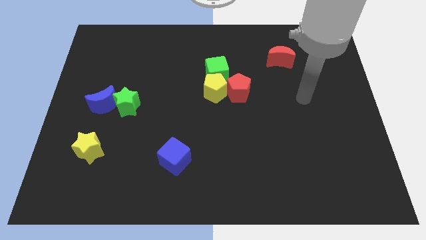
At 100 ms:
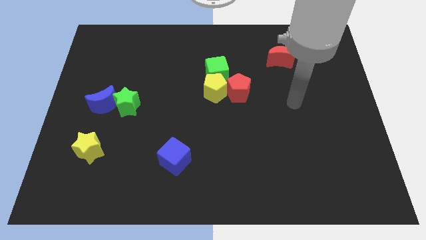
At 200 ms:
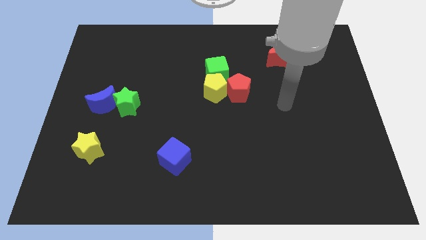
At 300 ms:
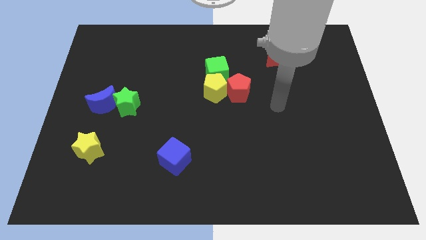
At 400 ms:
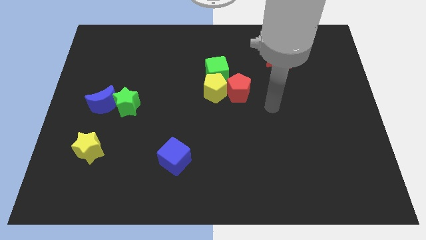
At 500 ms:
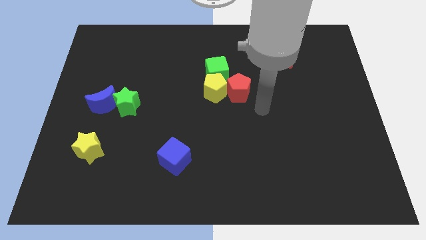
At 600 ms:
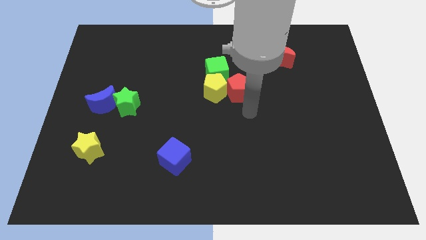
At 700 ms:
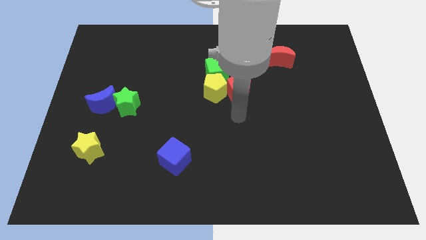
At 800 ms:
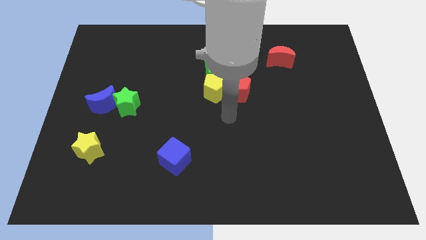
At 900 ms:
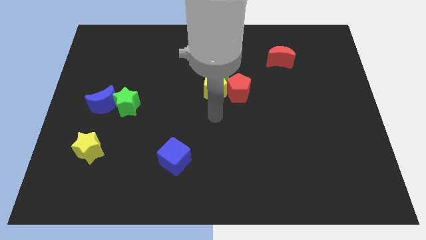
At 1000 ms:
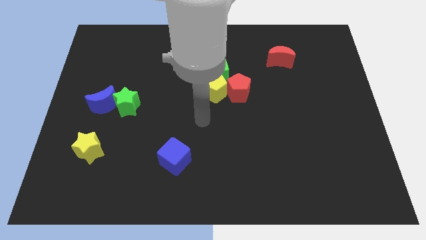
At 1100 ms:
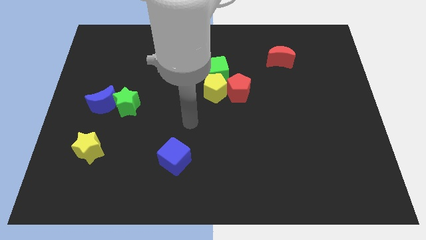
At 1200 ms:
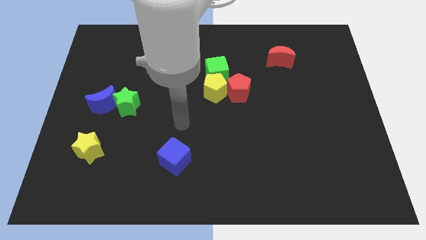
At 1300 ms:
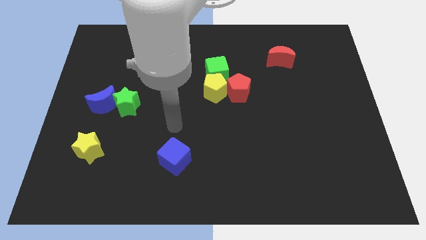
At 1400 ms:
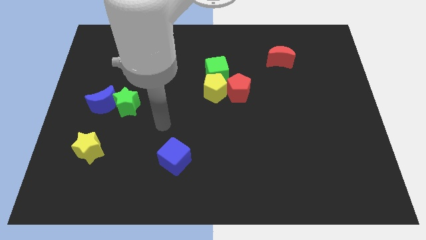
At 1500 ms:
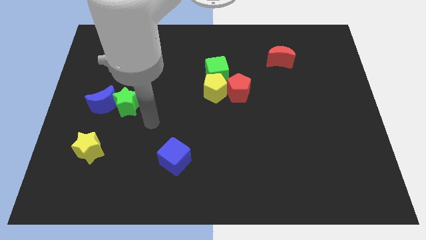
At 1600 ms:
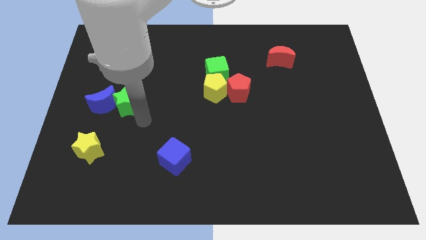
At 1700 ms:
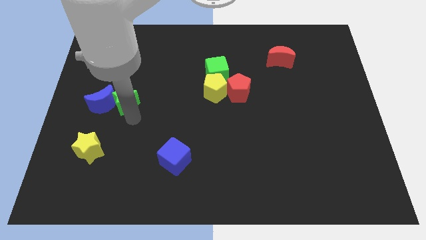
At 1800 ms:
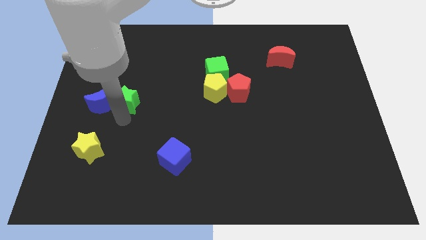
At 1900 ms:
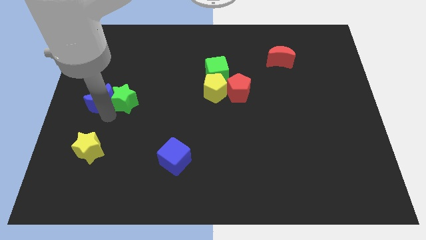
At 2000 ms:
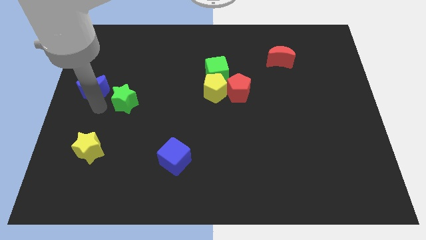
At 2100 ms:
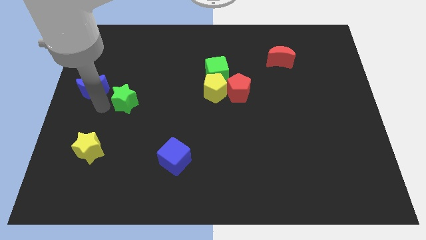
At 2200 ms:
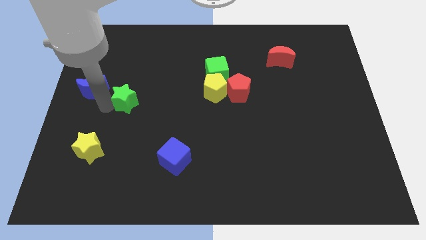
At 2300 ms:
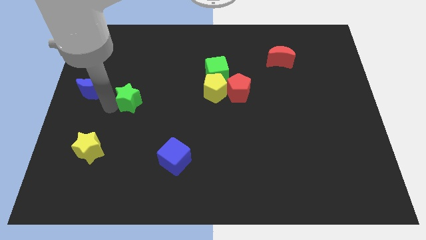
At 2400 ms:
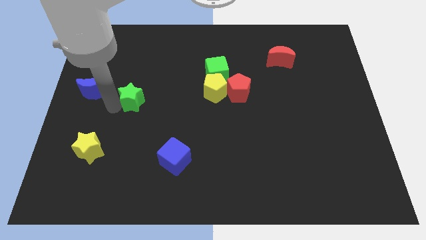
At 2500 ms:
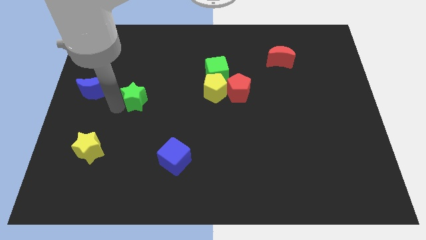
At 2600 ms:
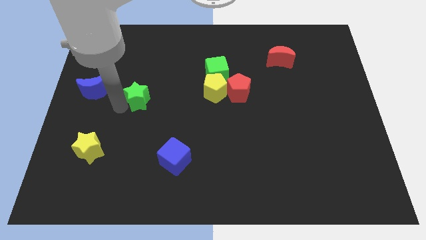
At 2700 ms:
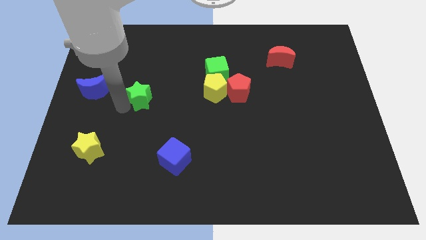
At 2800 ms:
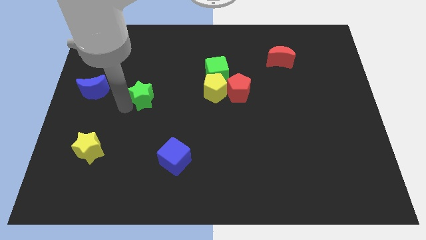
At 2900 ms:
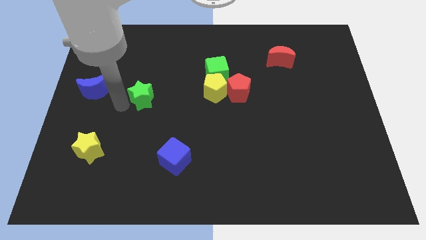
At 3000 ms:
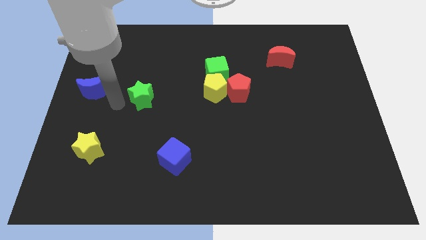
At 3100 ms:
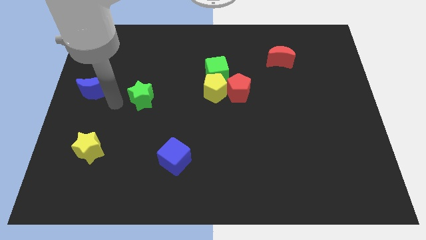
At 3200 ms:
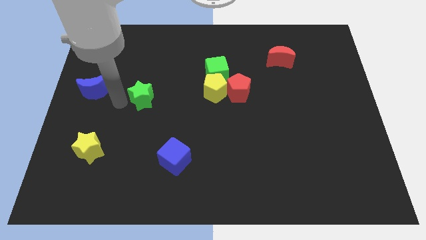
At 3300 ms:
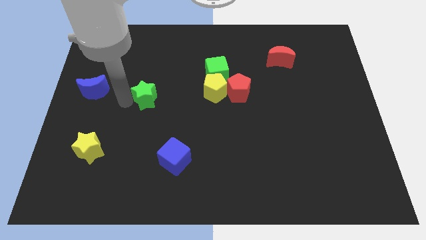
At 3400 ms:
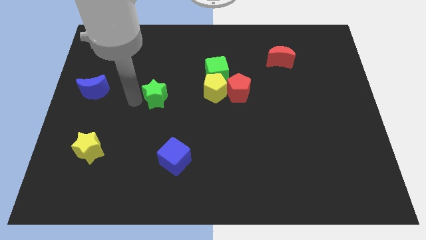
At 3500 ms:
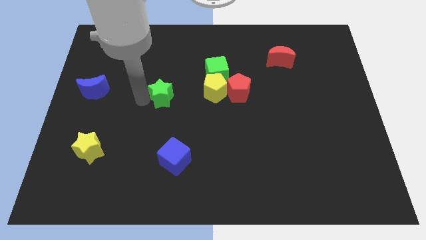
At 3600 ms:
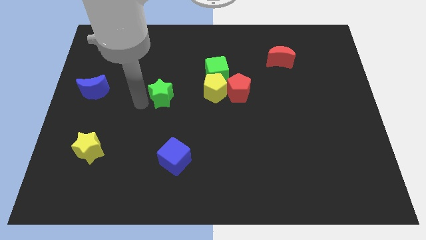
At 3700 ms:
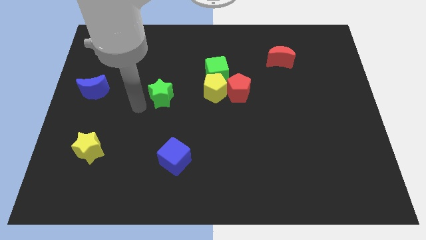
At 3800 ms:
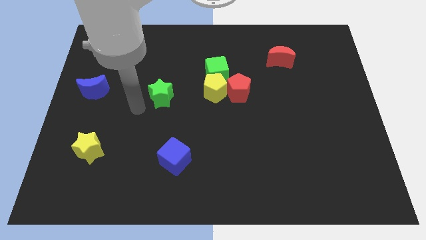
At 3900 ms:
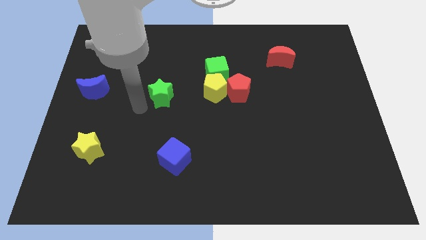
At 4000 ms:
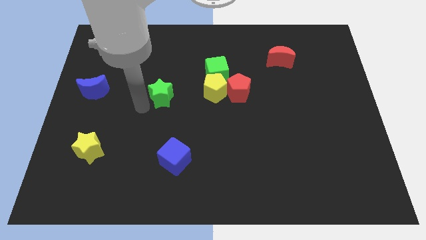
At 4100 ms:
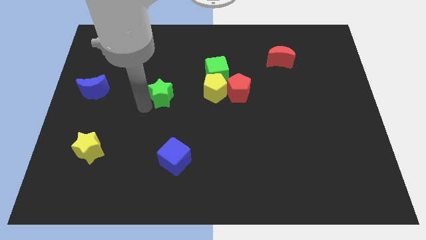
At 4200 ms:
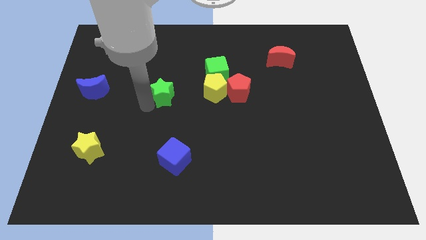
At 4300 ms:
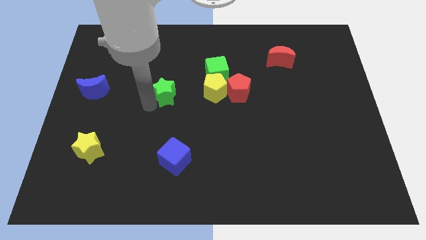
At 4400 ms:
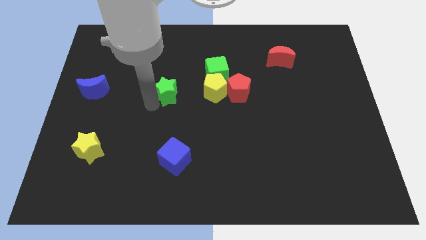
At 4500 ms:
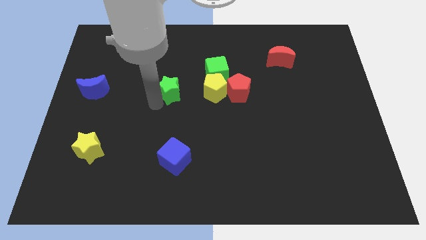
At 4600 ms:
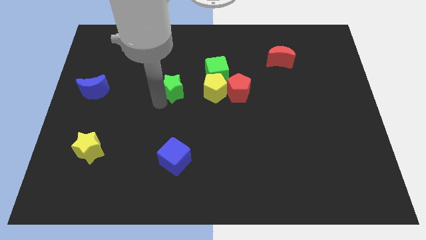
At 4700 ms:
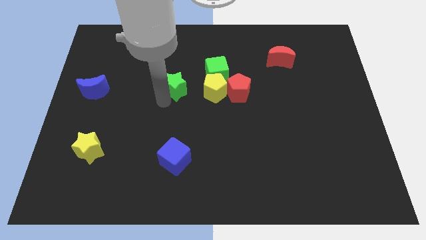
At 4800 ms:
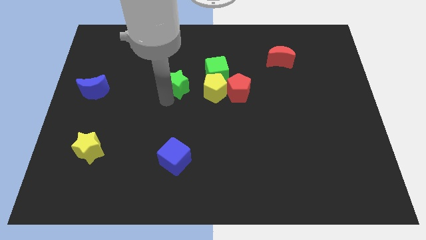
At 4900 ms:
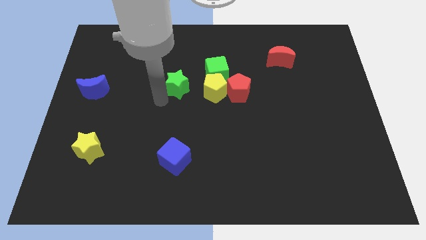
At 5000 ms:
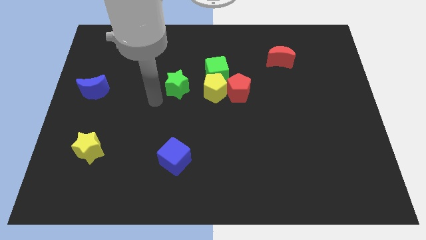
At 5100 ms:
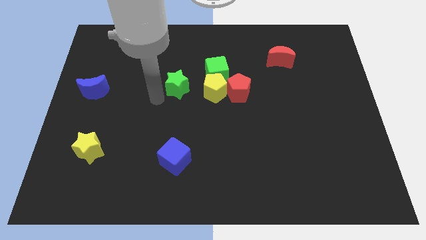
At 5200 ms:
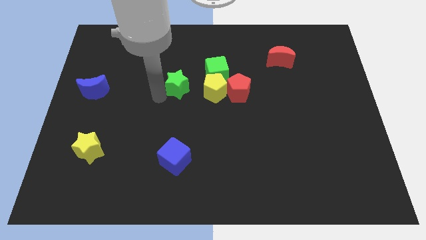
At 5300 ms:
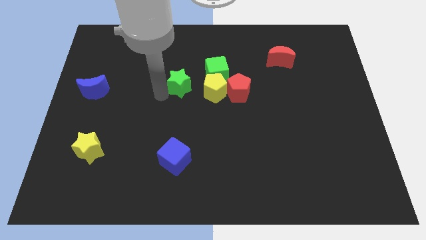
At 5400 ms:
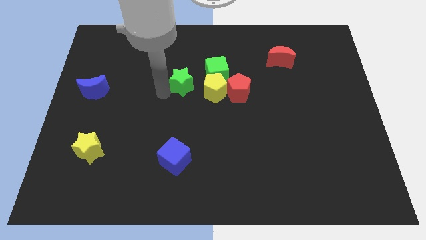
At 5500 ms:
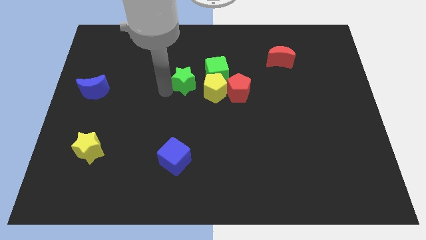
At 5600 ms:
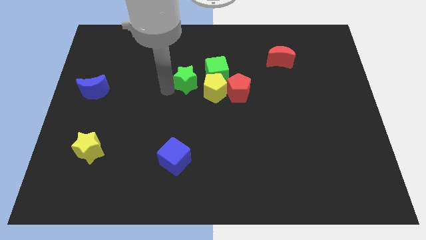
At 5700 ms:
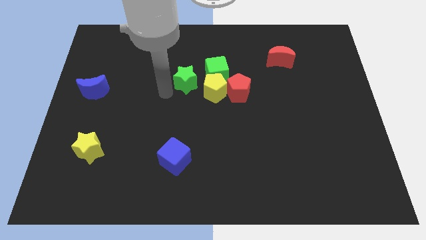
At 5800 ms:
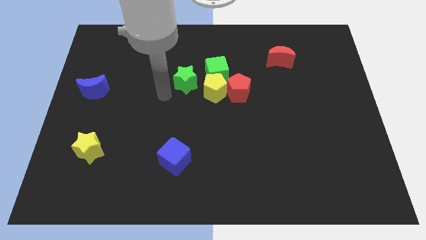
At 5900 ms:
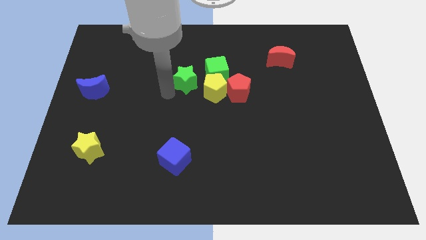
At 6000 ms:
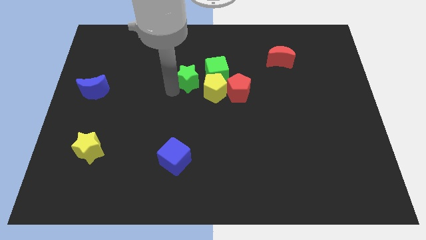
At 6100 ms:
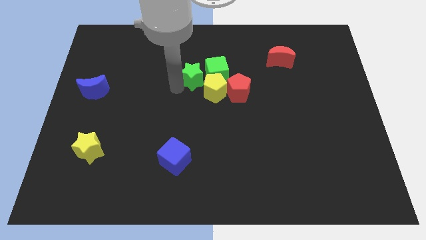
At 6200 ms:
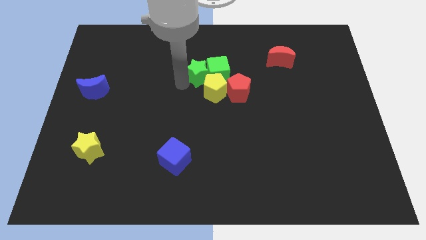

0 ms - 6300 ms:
move the green star towards the green cube

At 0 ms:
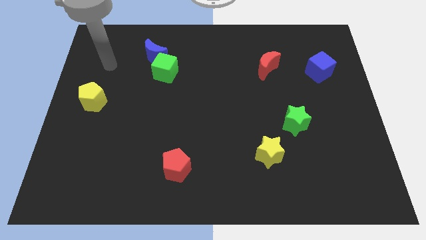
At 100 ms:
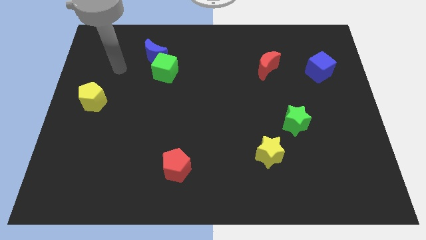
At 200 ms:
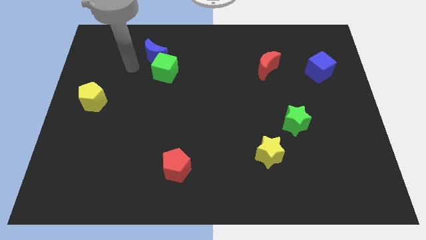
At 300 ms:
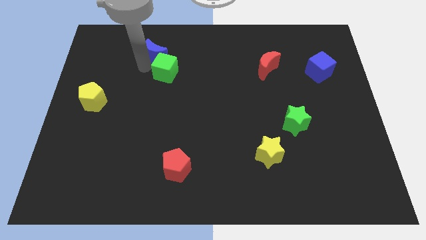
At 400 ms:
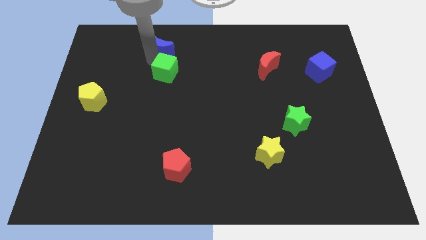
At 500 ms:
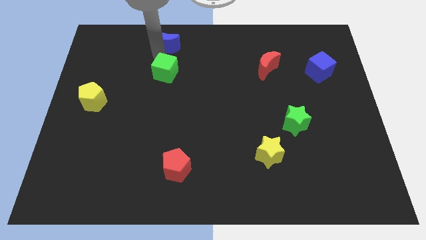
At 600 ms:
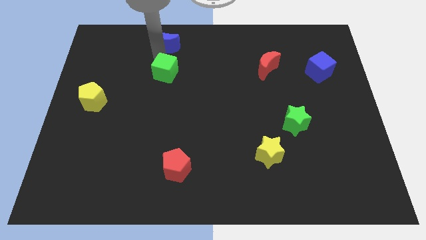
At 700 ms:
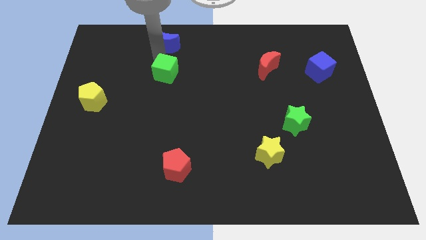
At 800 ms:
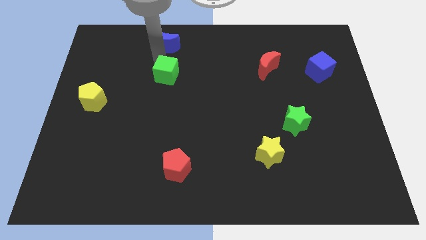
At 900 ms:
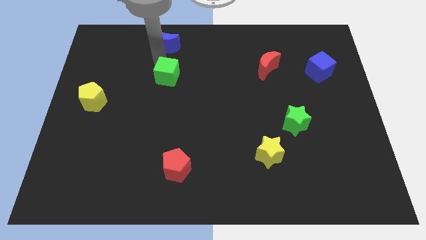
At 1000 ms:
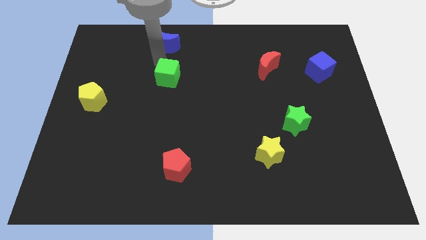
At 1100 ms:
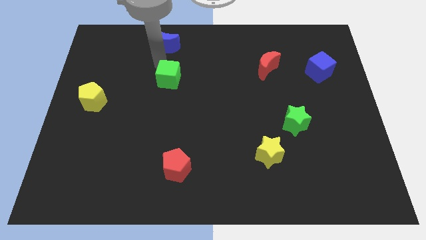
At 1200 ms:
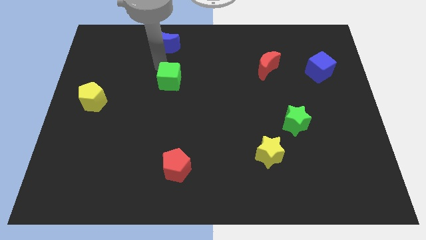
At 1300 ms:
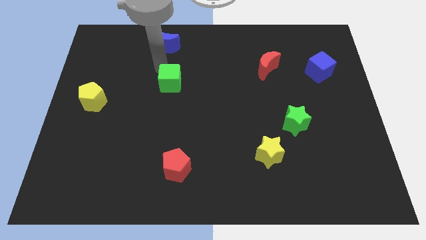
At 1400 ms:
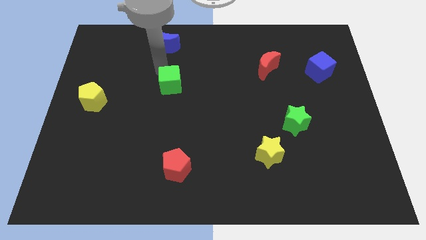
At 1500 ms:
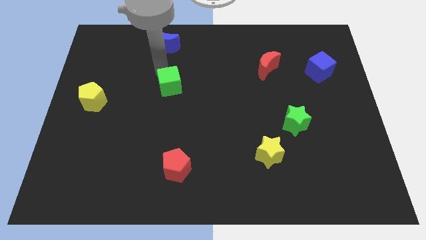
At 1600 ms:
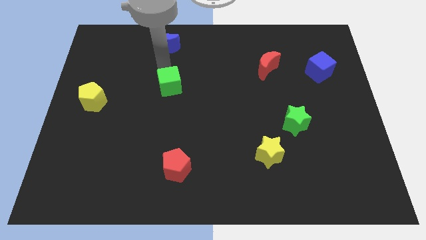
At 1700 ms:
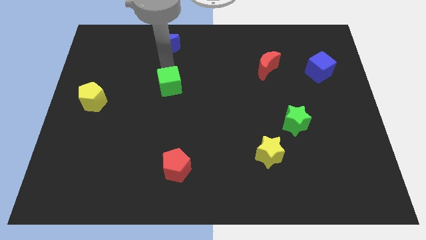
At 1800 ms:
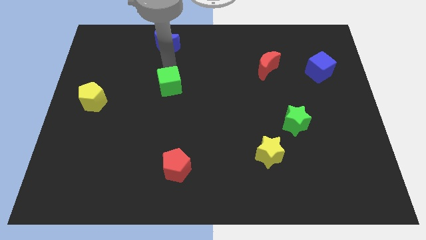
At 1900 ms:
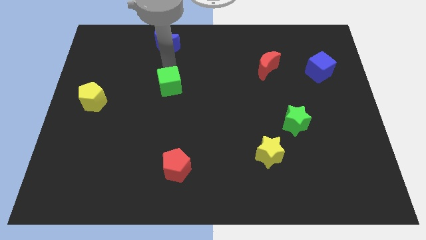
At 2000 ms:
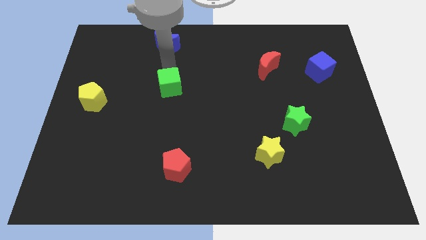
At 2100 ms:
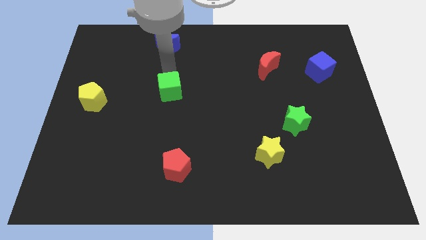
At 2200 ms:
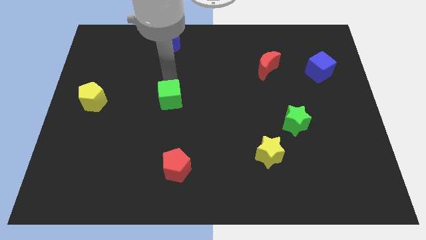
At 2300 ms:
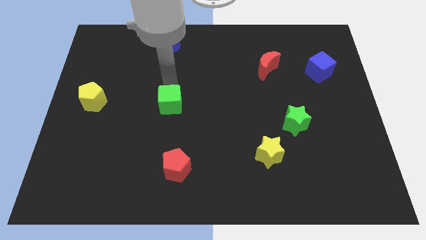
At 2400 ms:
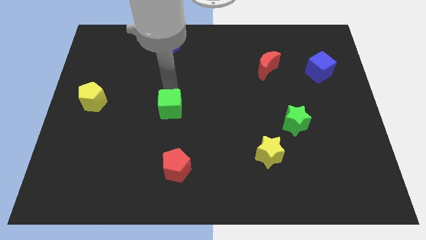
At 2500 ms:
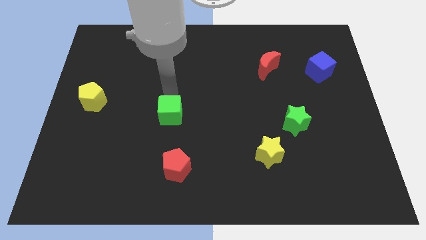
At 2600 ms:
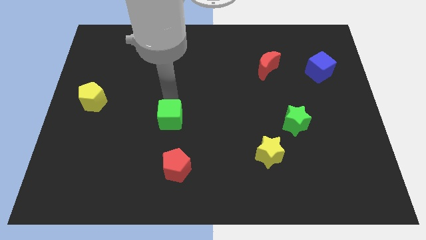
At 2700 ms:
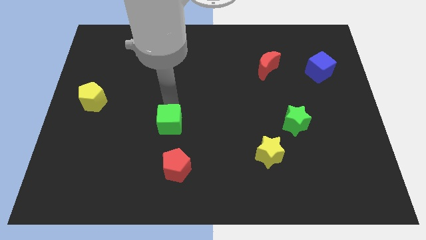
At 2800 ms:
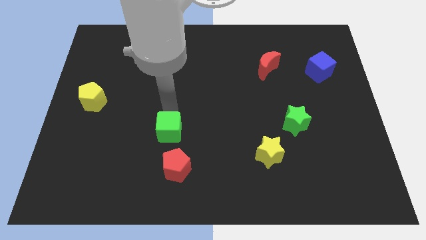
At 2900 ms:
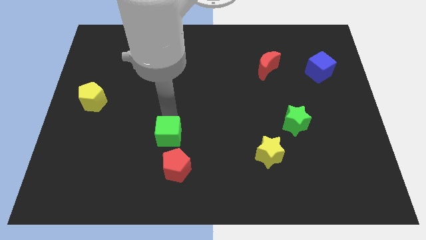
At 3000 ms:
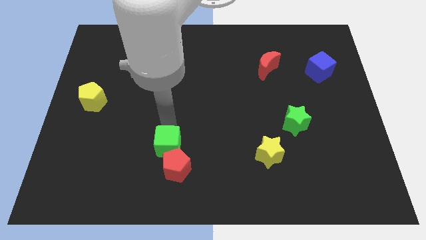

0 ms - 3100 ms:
move the green cube next to the red pentagon
